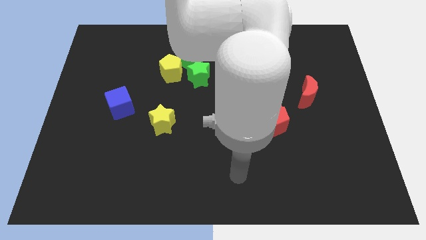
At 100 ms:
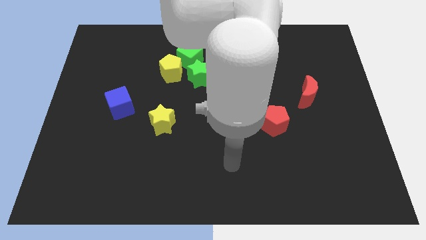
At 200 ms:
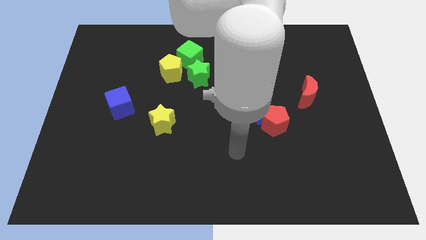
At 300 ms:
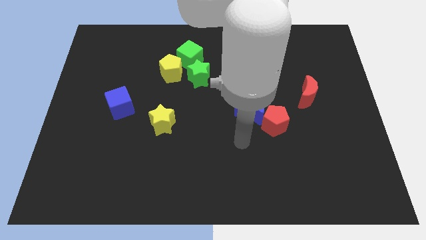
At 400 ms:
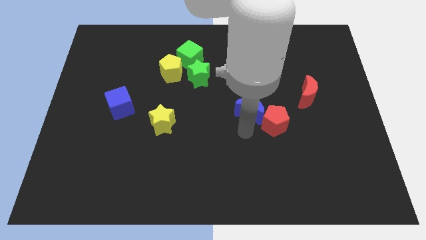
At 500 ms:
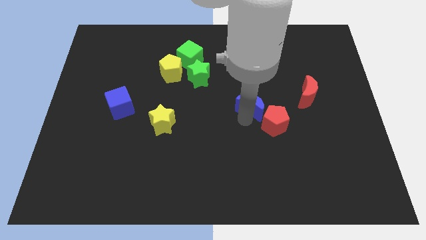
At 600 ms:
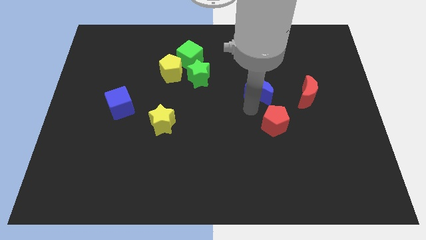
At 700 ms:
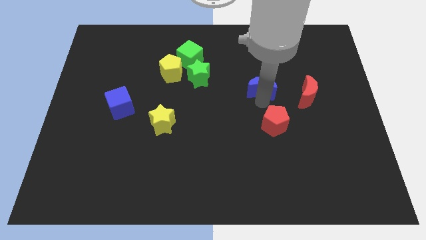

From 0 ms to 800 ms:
move the red pentagon away from the blue moon

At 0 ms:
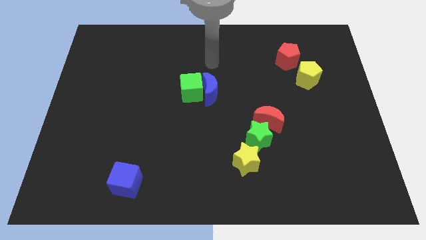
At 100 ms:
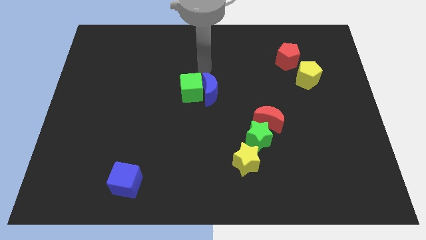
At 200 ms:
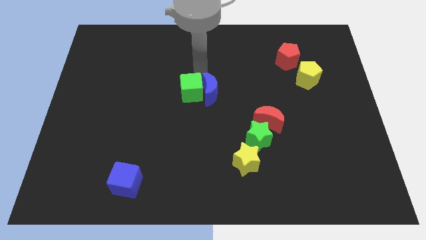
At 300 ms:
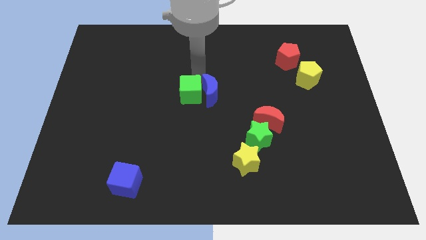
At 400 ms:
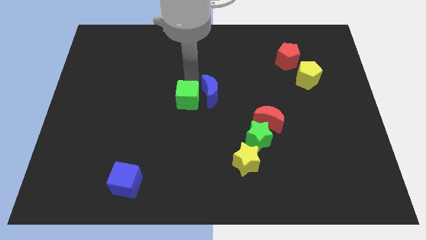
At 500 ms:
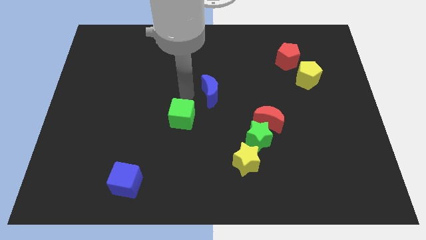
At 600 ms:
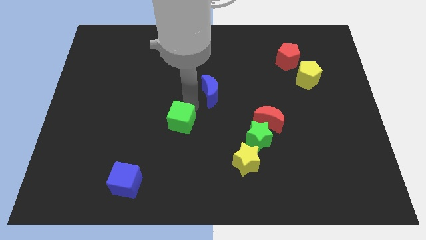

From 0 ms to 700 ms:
separate the blue moon from the green cube

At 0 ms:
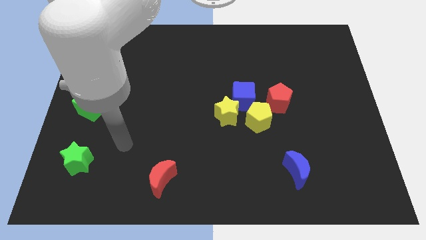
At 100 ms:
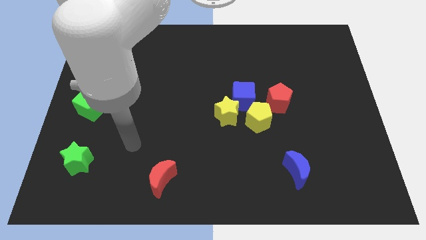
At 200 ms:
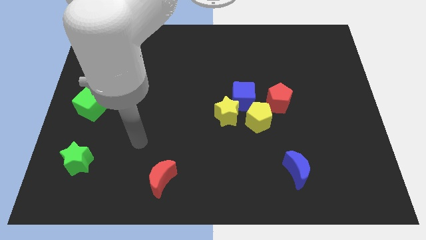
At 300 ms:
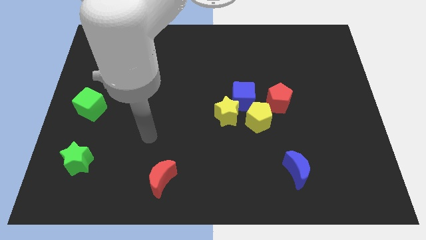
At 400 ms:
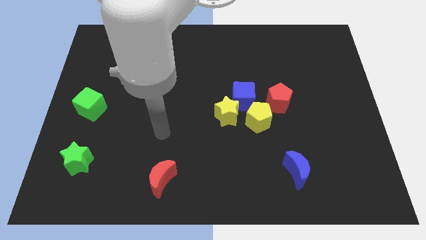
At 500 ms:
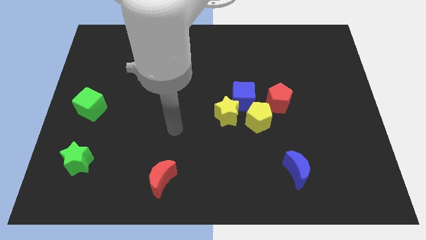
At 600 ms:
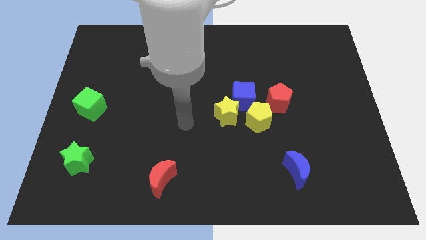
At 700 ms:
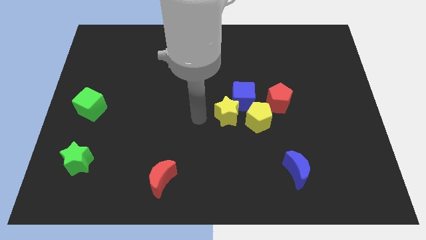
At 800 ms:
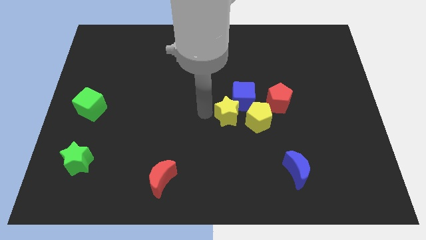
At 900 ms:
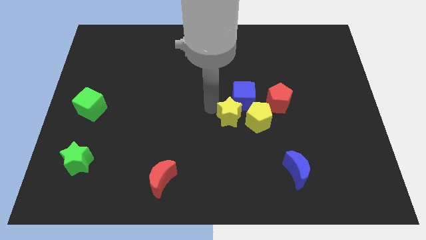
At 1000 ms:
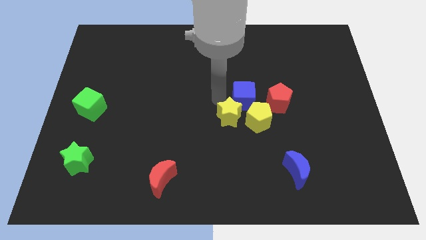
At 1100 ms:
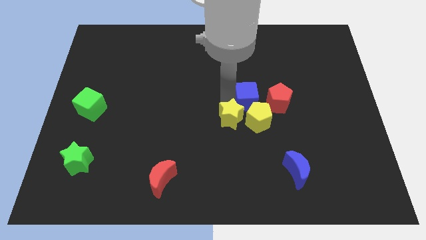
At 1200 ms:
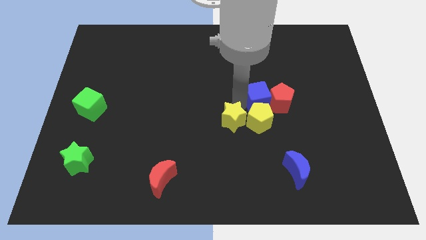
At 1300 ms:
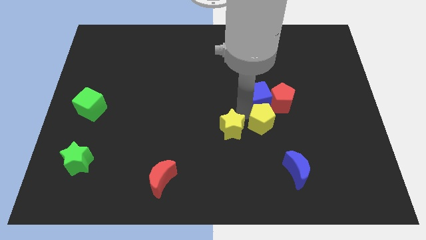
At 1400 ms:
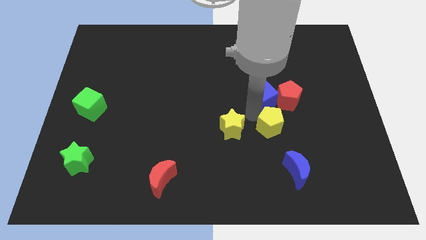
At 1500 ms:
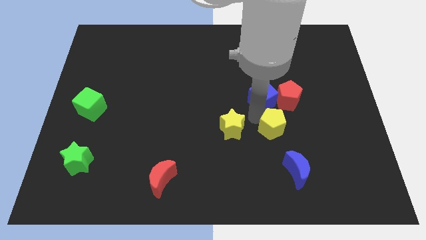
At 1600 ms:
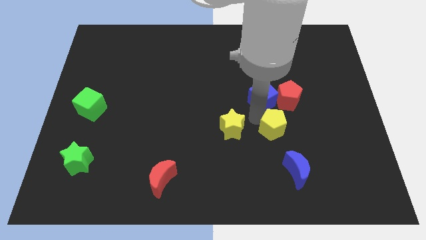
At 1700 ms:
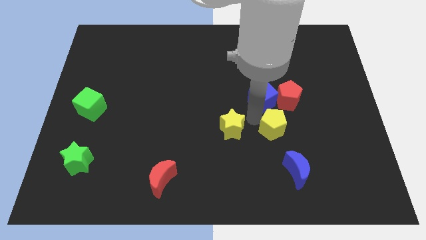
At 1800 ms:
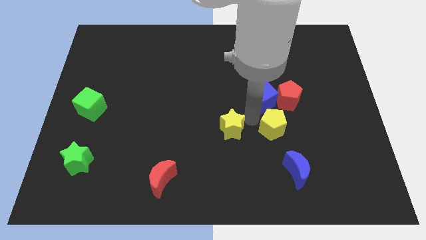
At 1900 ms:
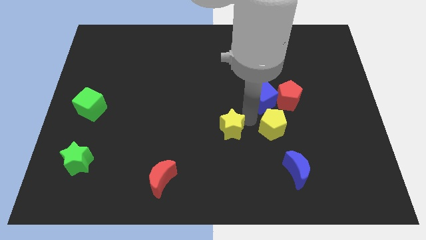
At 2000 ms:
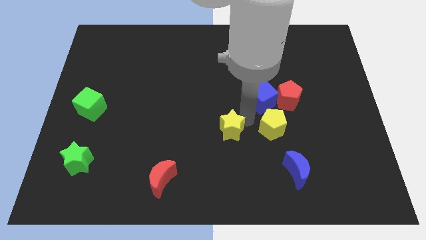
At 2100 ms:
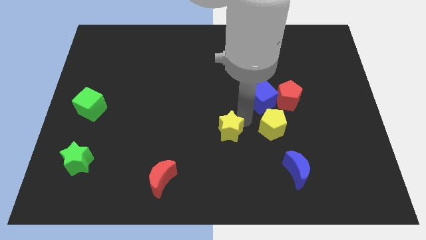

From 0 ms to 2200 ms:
pull the yellow star apart from the blue cube and yellow pentagon

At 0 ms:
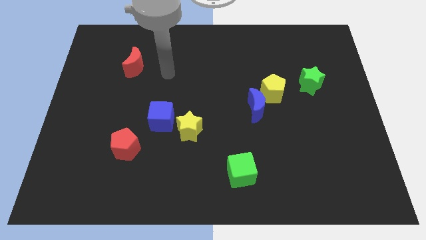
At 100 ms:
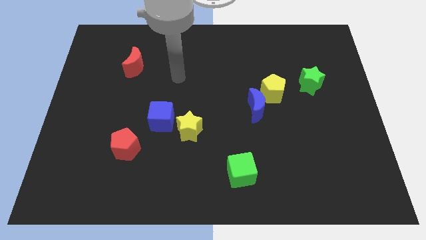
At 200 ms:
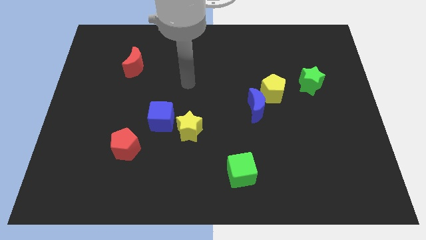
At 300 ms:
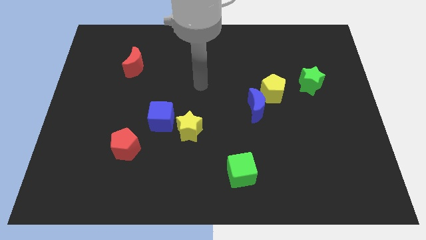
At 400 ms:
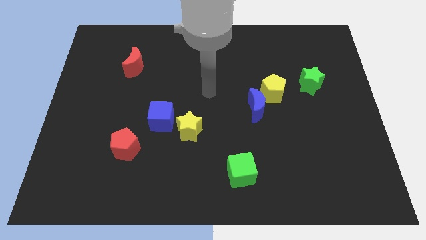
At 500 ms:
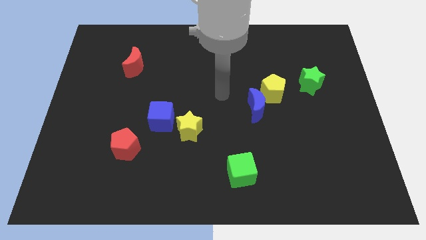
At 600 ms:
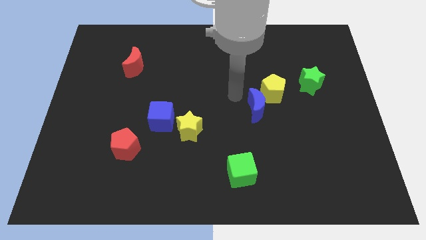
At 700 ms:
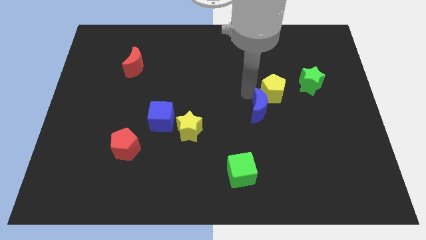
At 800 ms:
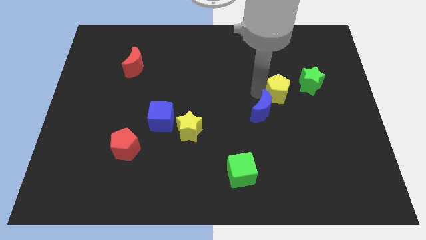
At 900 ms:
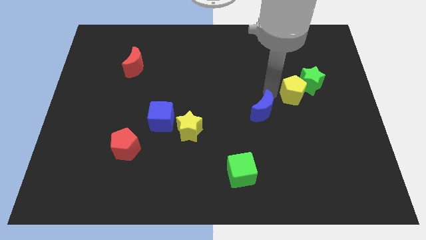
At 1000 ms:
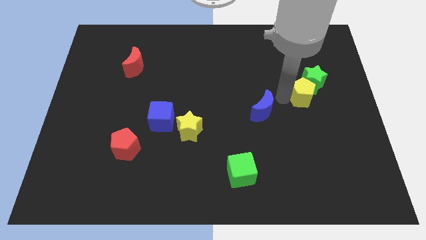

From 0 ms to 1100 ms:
separate the blue moon from the yellow pentagon

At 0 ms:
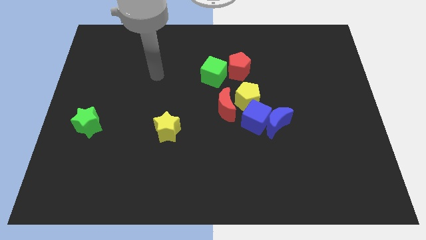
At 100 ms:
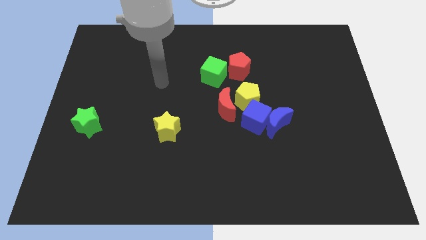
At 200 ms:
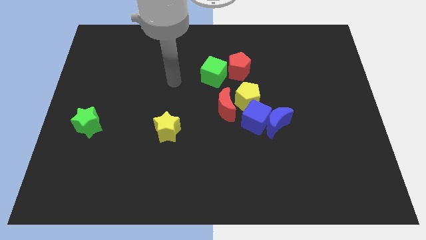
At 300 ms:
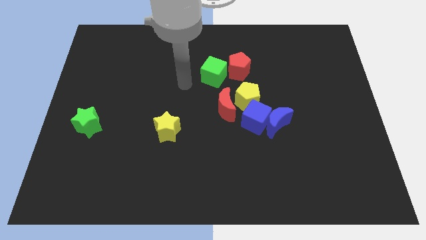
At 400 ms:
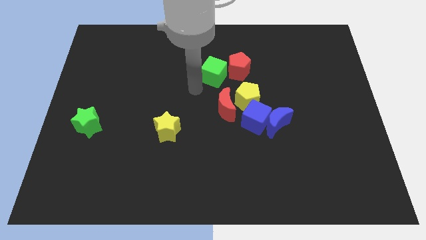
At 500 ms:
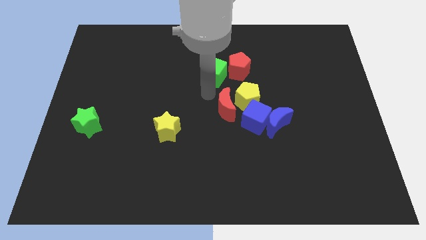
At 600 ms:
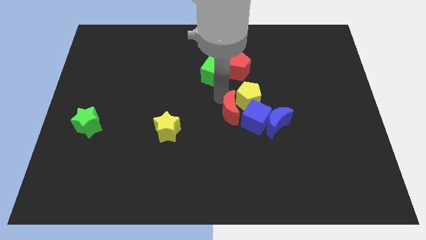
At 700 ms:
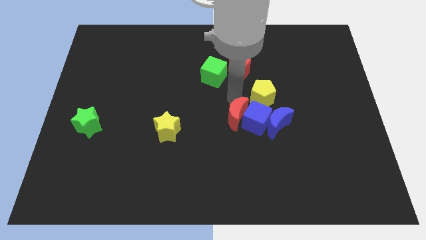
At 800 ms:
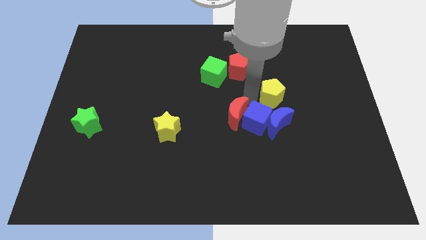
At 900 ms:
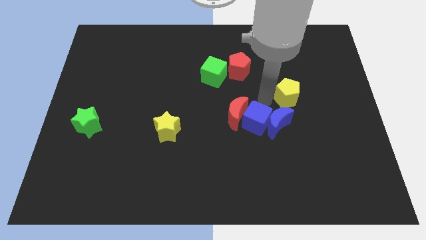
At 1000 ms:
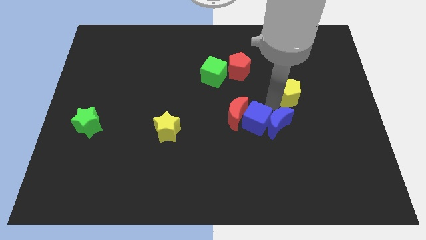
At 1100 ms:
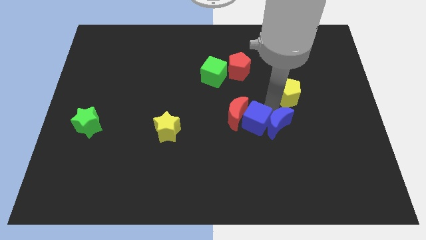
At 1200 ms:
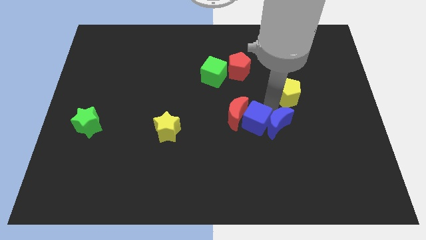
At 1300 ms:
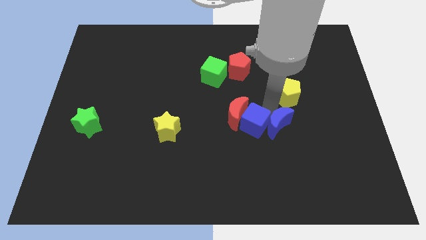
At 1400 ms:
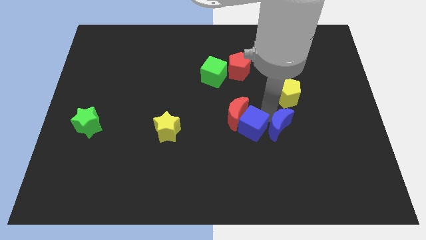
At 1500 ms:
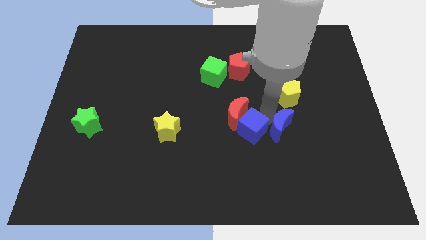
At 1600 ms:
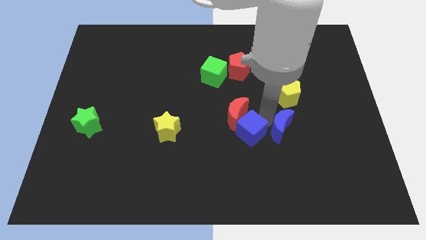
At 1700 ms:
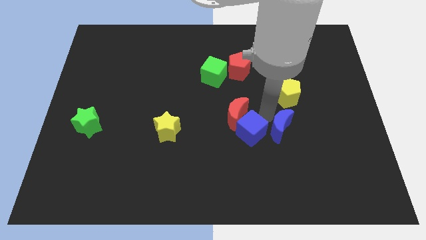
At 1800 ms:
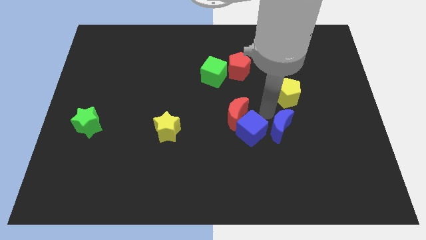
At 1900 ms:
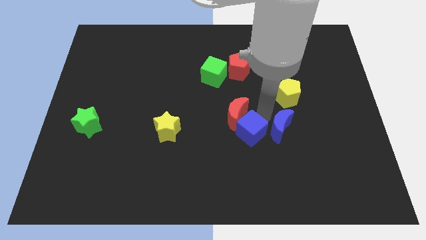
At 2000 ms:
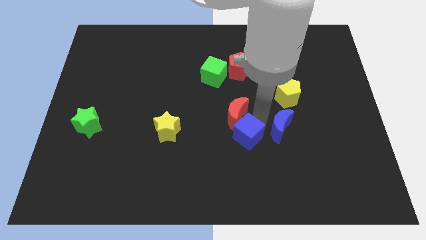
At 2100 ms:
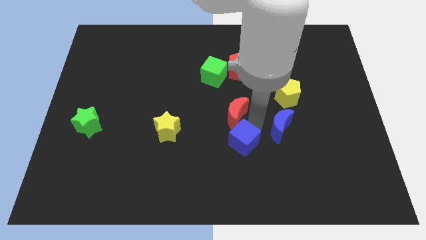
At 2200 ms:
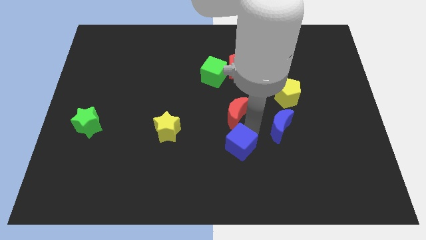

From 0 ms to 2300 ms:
move the blue cube away from the group

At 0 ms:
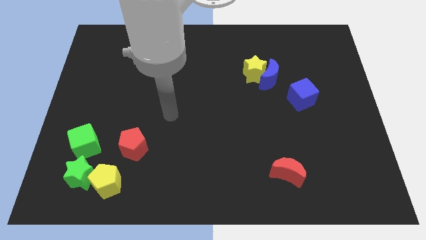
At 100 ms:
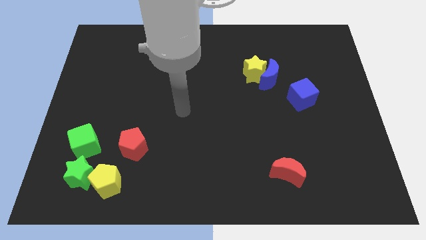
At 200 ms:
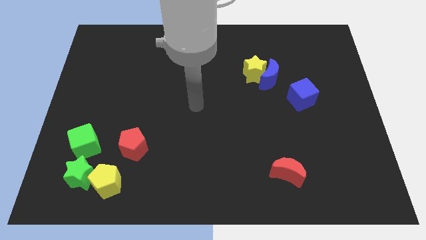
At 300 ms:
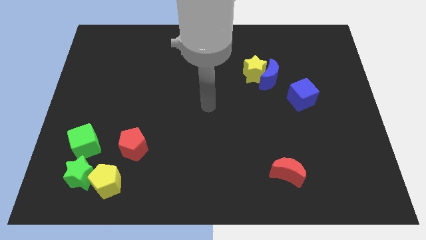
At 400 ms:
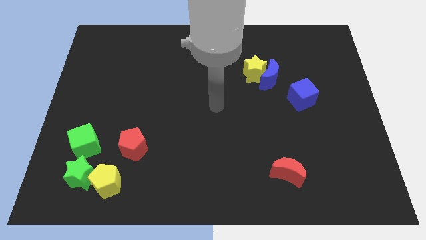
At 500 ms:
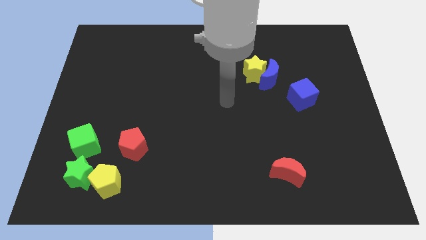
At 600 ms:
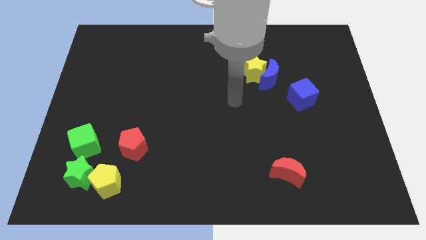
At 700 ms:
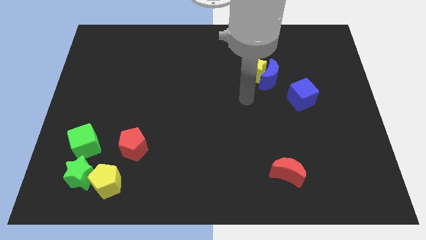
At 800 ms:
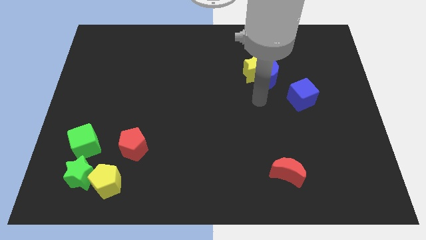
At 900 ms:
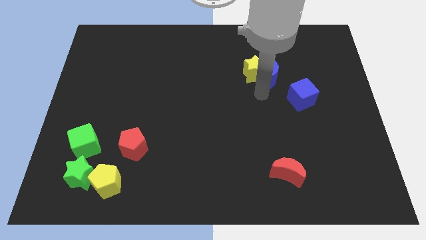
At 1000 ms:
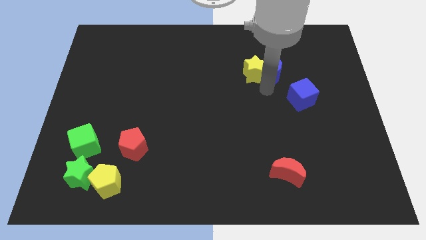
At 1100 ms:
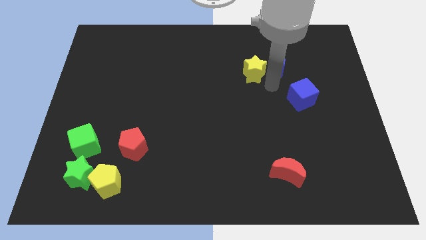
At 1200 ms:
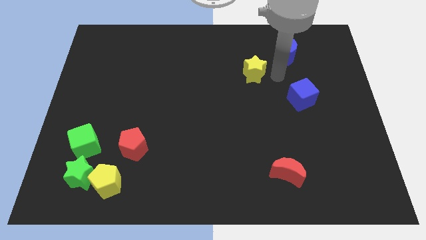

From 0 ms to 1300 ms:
separate the yellow star from the blue moon

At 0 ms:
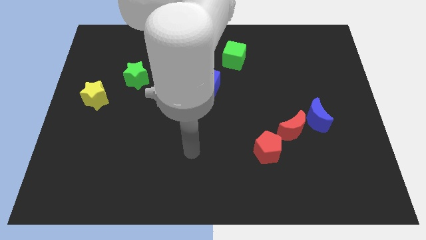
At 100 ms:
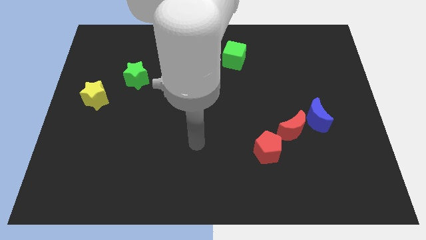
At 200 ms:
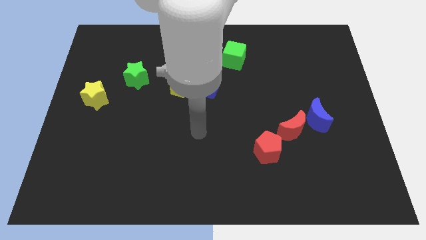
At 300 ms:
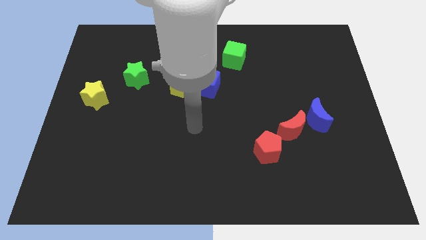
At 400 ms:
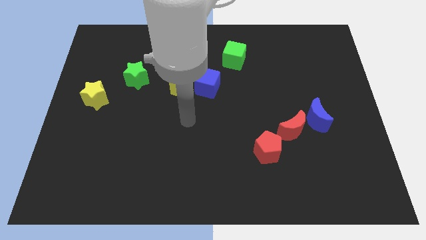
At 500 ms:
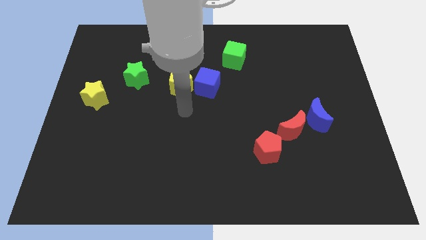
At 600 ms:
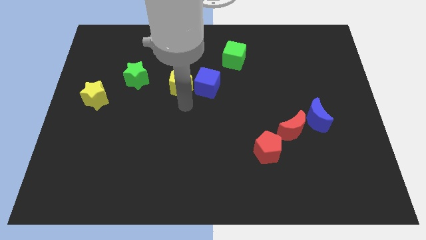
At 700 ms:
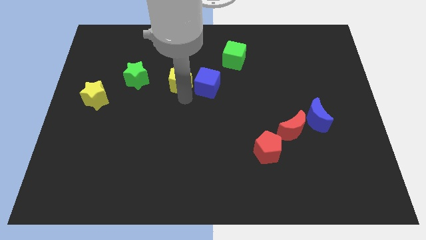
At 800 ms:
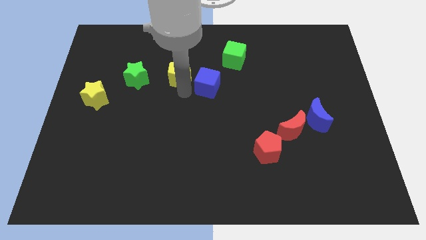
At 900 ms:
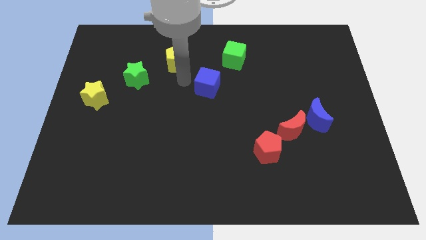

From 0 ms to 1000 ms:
pull the blue cube apart from the yellow pentagon
